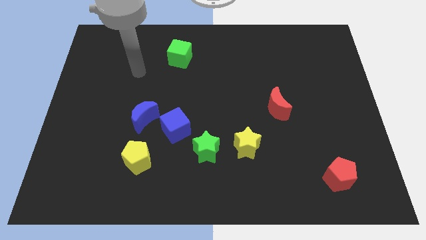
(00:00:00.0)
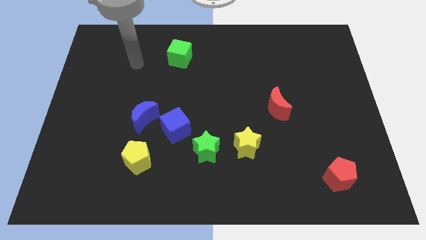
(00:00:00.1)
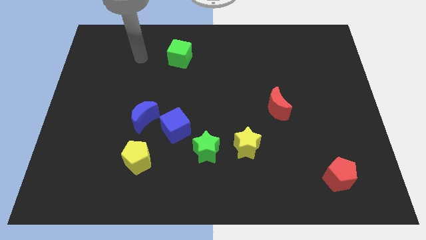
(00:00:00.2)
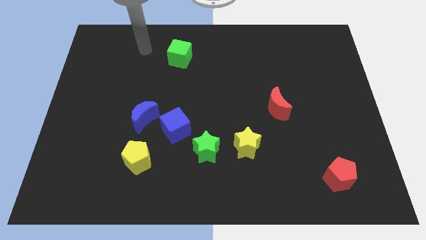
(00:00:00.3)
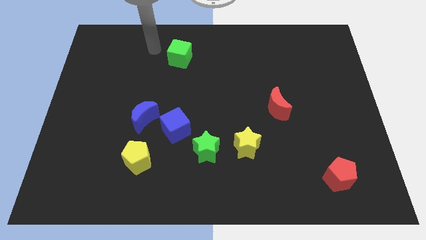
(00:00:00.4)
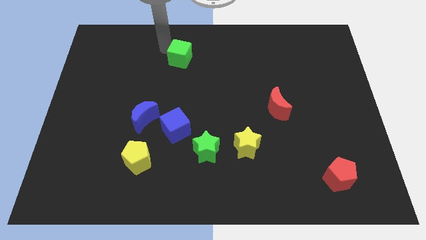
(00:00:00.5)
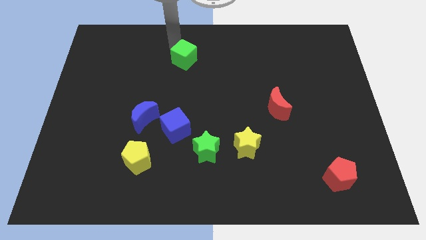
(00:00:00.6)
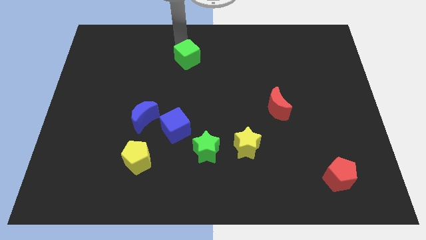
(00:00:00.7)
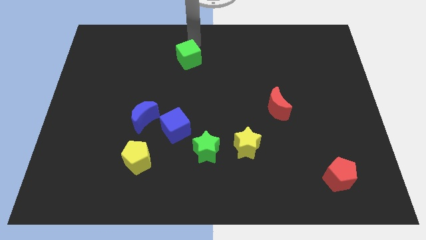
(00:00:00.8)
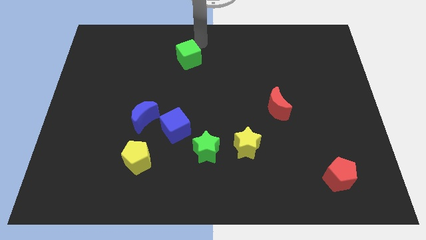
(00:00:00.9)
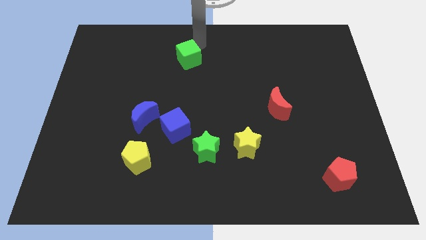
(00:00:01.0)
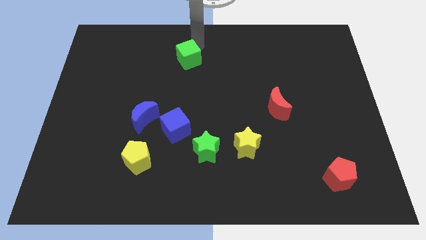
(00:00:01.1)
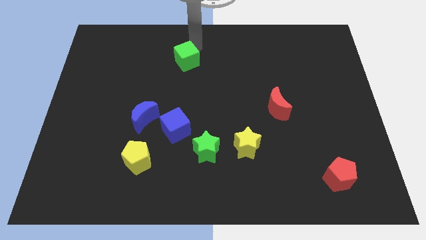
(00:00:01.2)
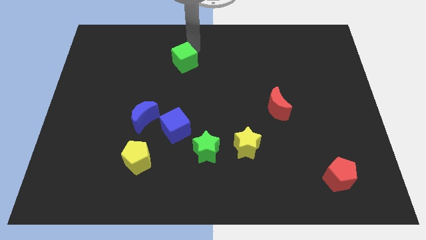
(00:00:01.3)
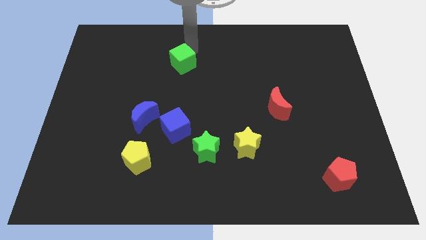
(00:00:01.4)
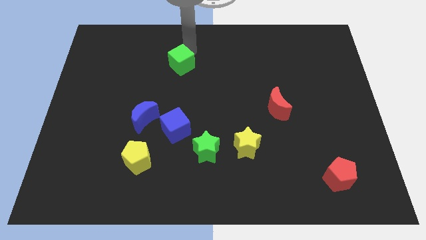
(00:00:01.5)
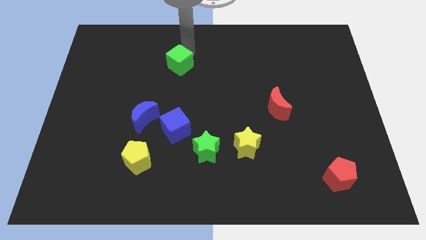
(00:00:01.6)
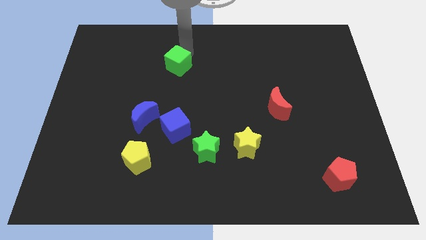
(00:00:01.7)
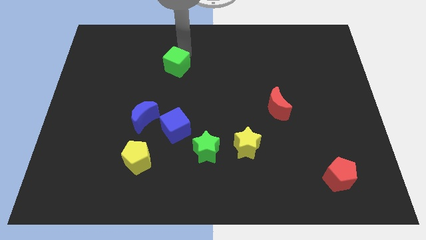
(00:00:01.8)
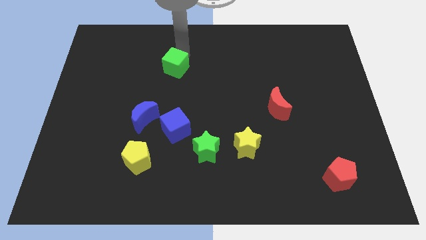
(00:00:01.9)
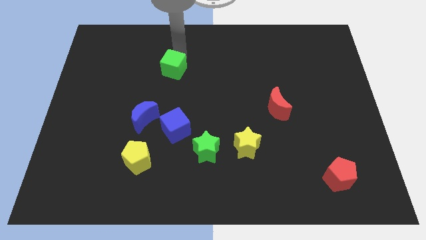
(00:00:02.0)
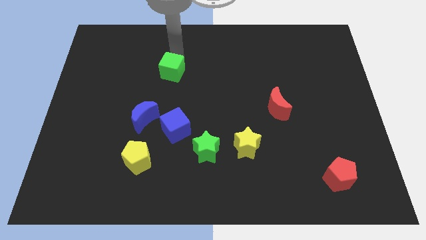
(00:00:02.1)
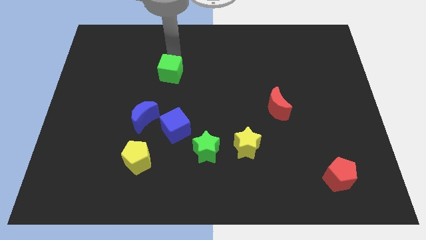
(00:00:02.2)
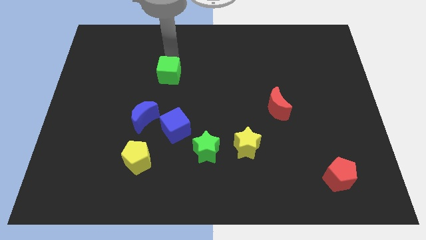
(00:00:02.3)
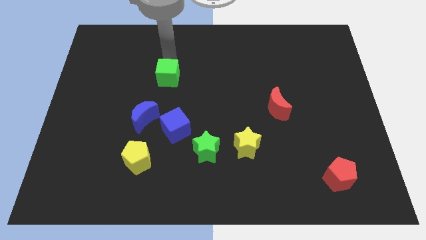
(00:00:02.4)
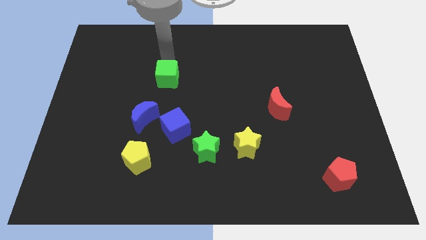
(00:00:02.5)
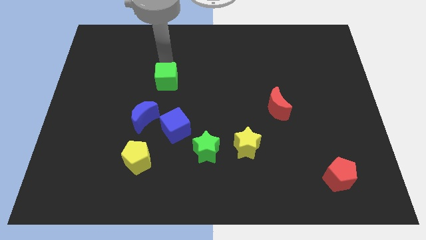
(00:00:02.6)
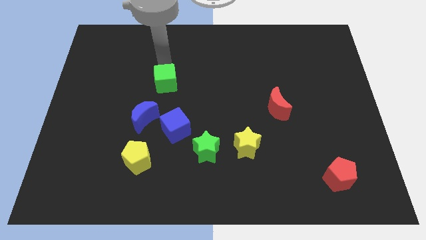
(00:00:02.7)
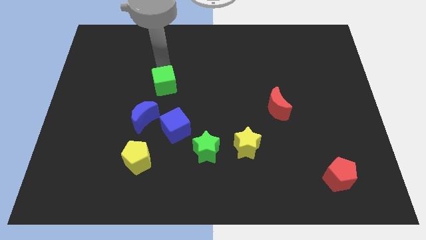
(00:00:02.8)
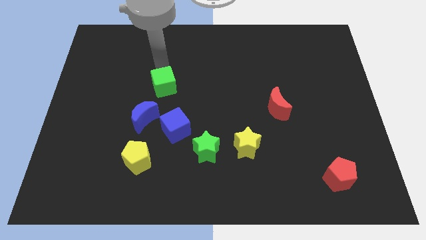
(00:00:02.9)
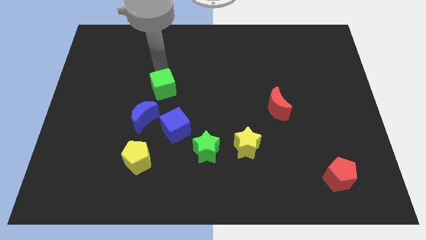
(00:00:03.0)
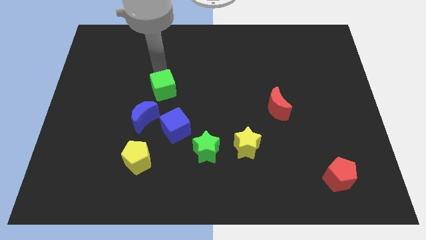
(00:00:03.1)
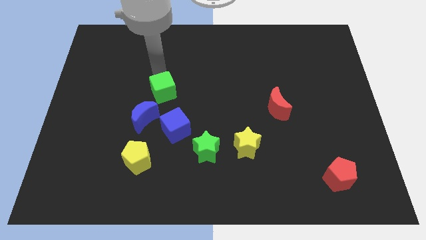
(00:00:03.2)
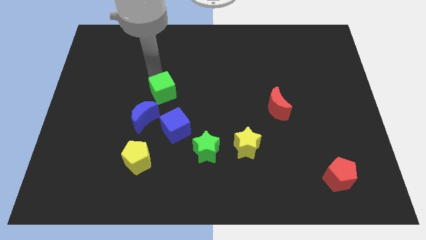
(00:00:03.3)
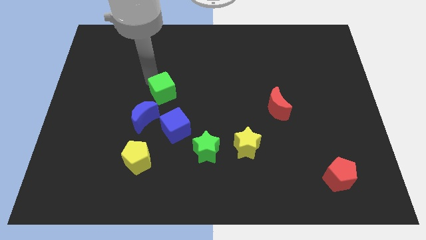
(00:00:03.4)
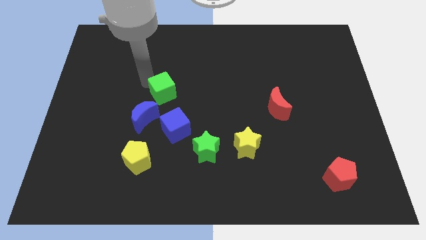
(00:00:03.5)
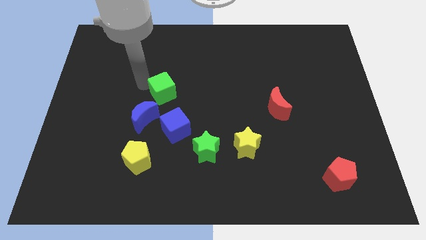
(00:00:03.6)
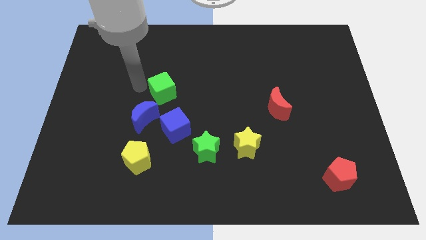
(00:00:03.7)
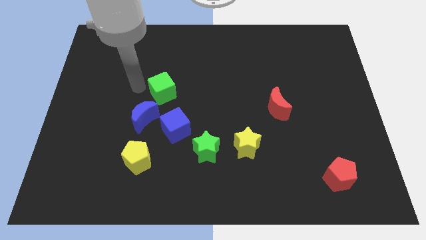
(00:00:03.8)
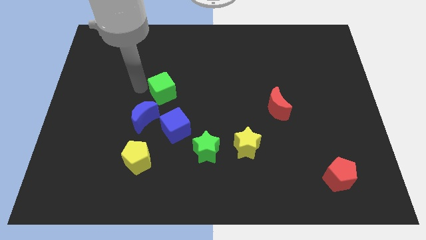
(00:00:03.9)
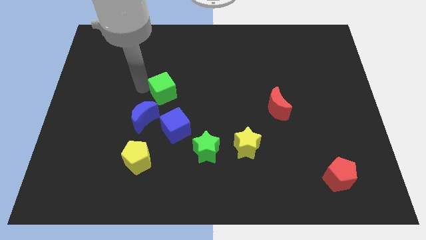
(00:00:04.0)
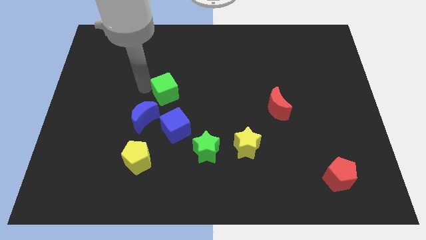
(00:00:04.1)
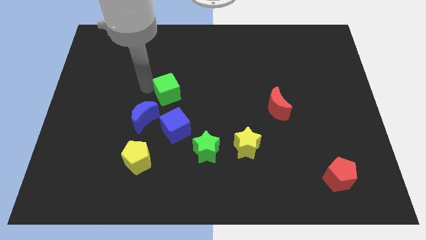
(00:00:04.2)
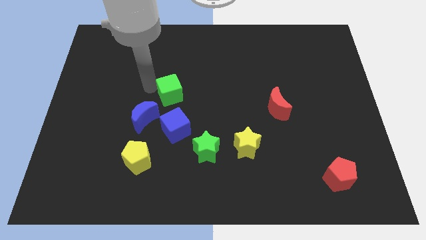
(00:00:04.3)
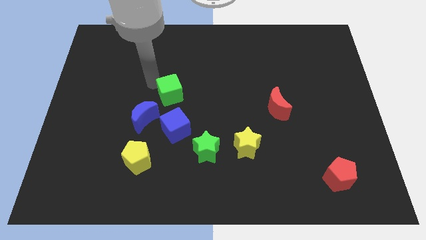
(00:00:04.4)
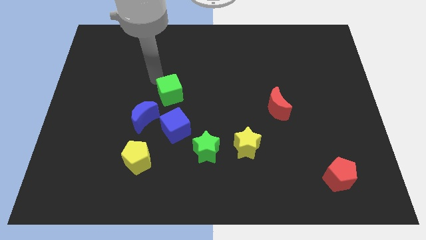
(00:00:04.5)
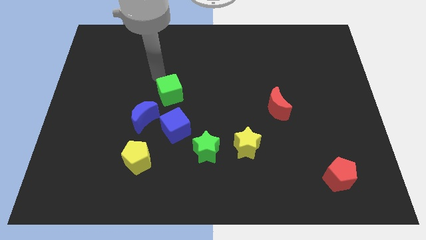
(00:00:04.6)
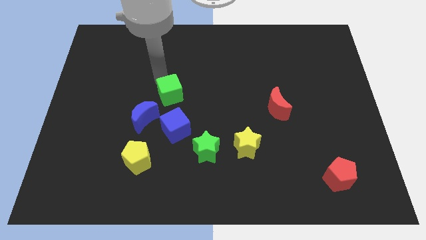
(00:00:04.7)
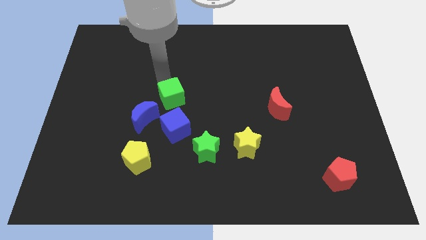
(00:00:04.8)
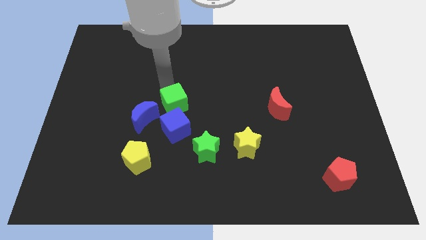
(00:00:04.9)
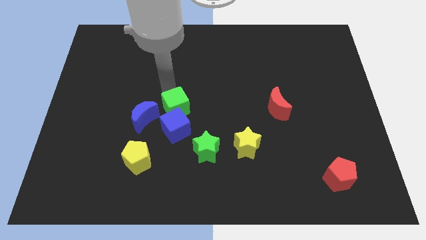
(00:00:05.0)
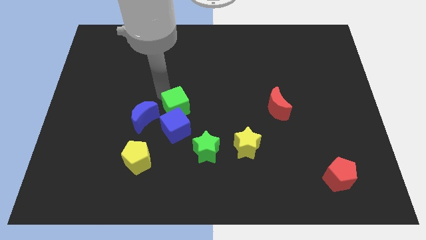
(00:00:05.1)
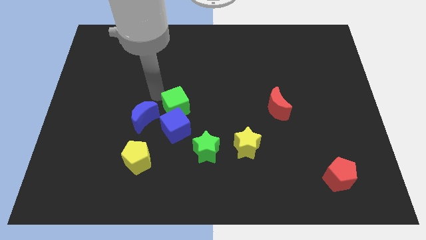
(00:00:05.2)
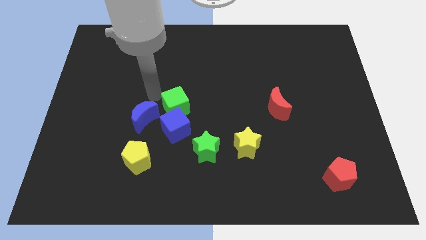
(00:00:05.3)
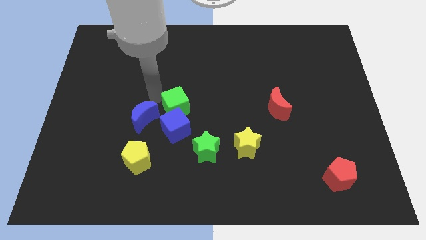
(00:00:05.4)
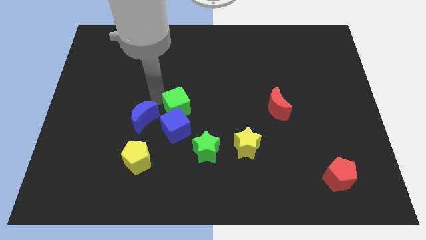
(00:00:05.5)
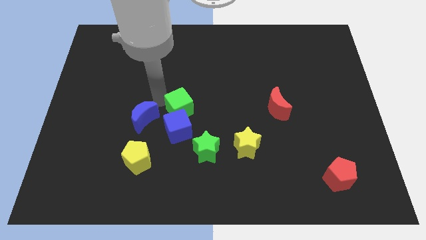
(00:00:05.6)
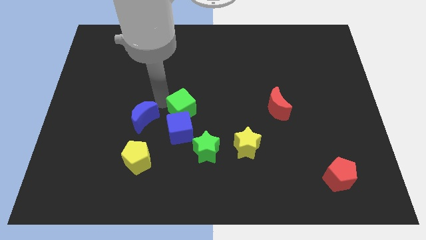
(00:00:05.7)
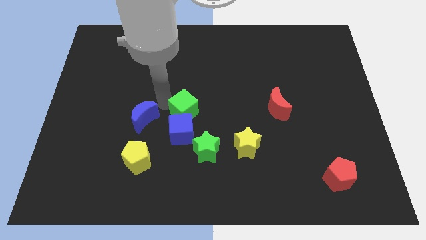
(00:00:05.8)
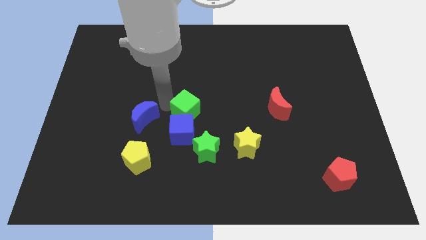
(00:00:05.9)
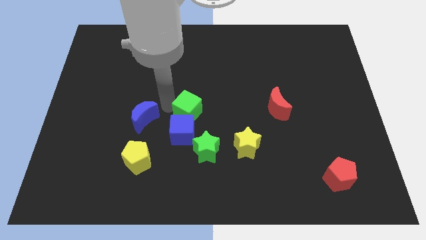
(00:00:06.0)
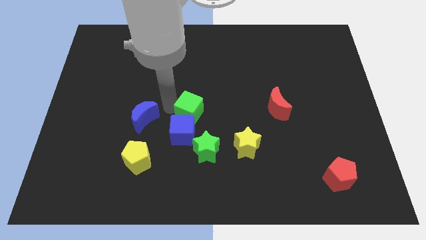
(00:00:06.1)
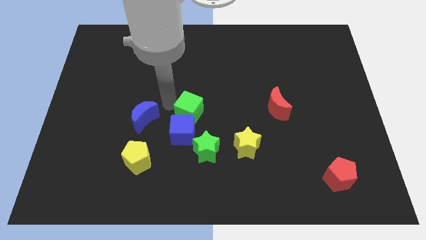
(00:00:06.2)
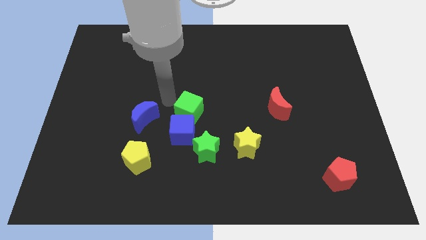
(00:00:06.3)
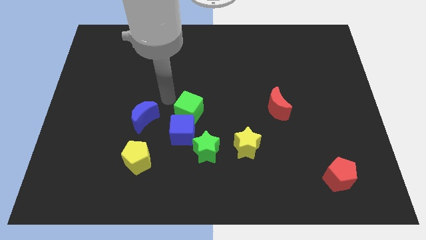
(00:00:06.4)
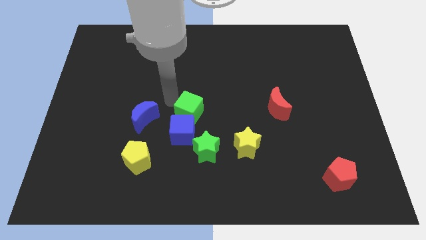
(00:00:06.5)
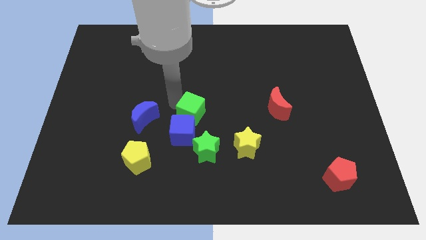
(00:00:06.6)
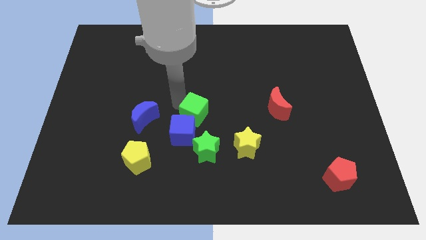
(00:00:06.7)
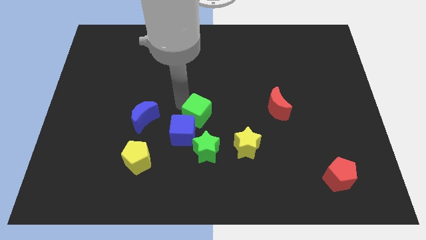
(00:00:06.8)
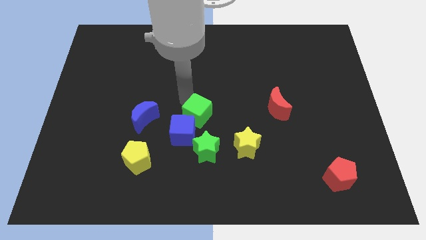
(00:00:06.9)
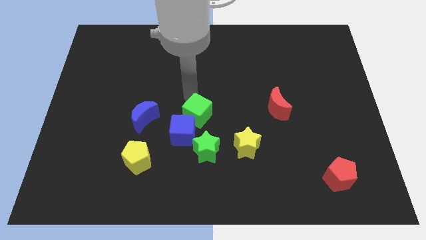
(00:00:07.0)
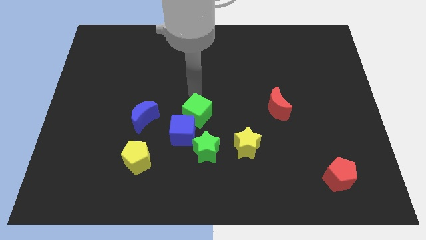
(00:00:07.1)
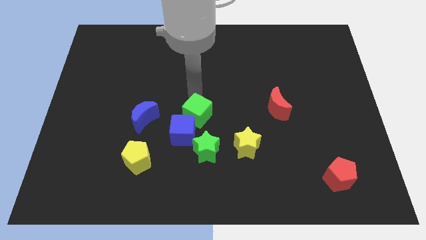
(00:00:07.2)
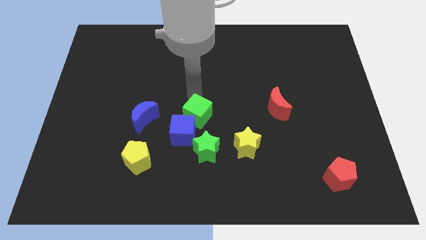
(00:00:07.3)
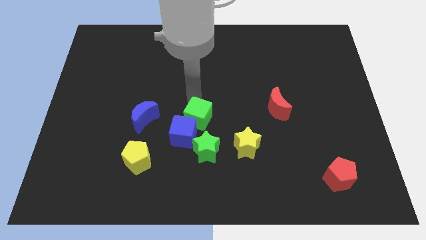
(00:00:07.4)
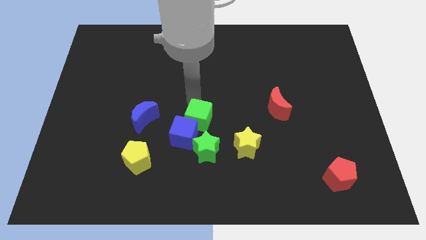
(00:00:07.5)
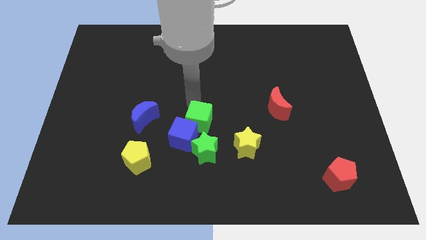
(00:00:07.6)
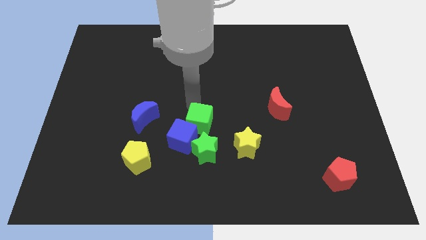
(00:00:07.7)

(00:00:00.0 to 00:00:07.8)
move the green cube down

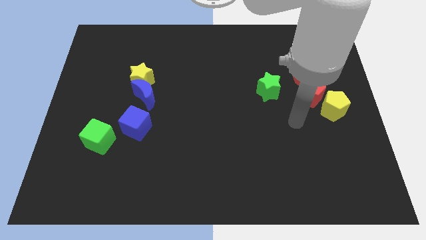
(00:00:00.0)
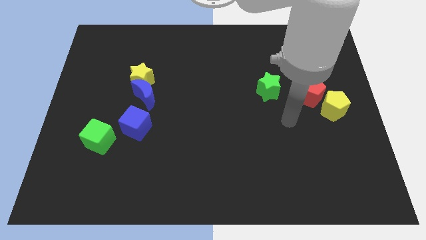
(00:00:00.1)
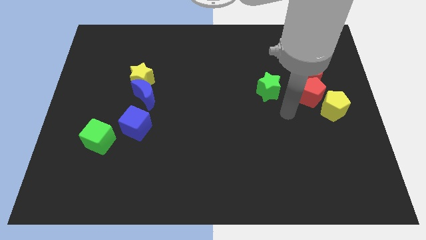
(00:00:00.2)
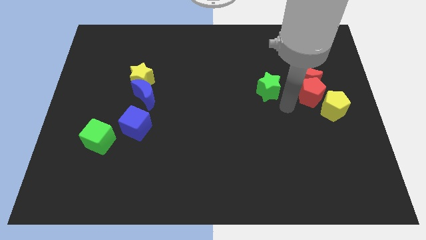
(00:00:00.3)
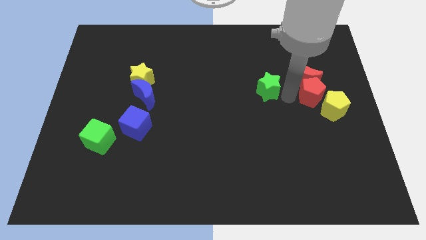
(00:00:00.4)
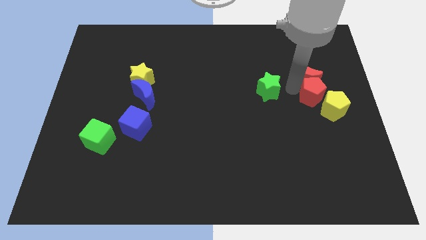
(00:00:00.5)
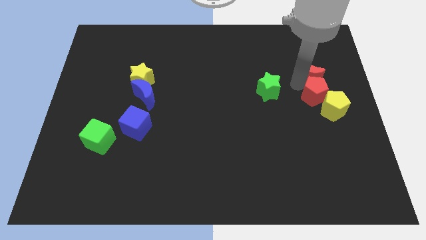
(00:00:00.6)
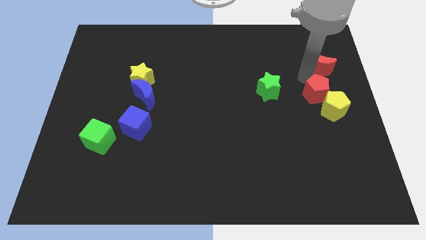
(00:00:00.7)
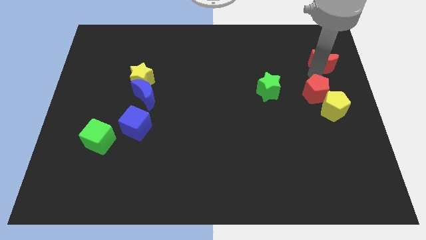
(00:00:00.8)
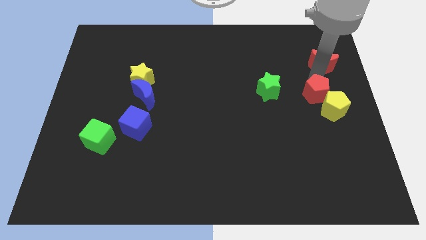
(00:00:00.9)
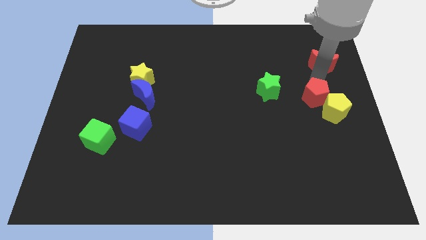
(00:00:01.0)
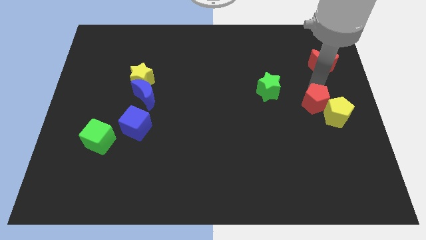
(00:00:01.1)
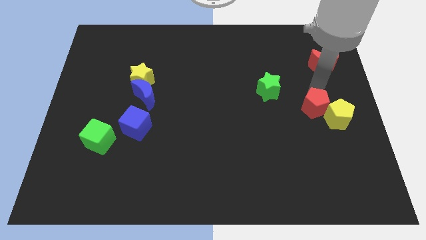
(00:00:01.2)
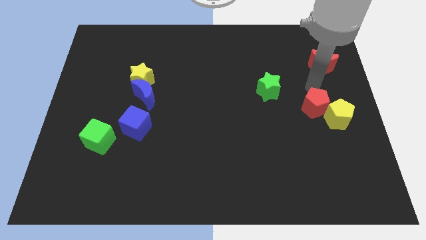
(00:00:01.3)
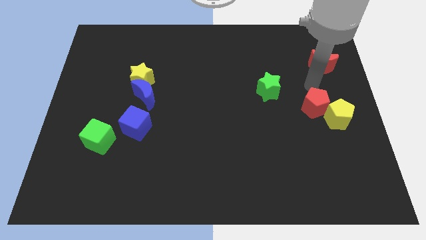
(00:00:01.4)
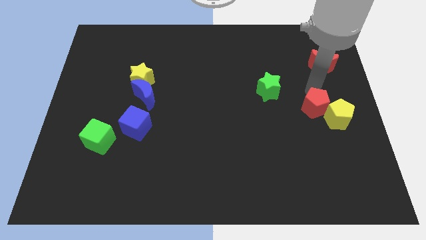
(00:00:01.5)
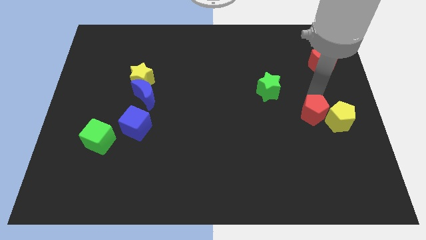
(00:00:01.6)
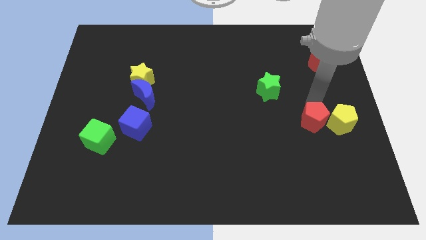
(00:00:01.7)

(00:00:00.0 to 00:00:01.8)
push the red pentagon downwards slightly
